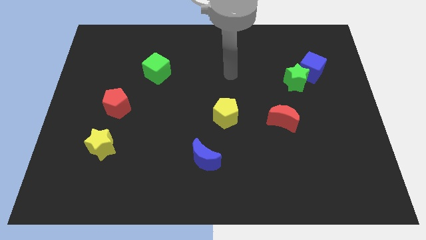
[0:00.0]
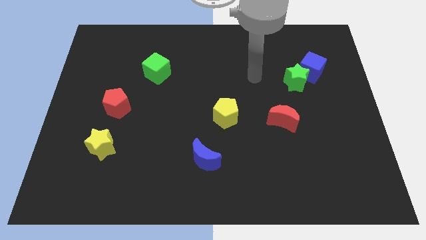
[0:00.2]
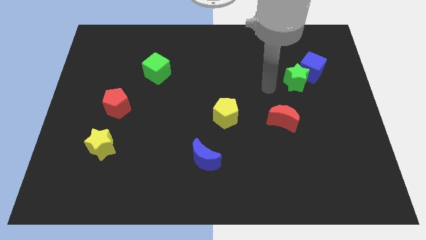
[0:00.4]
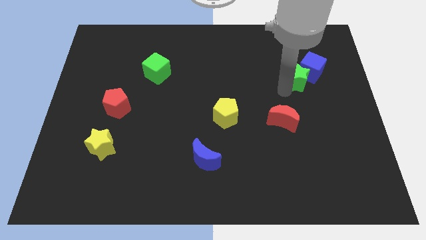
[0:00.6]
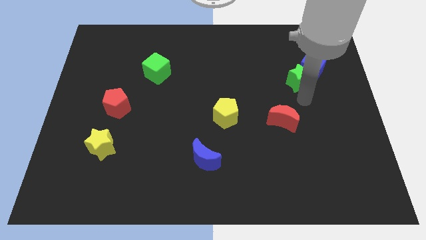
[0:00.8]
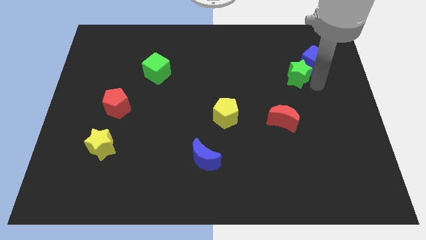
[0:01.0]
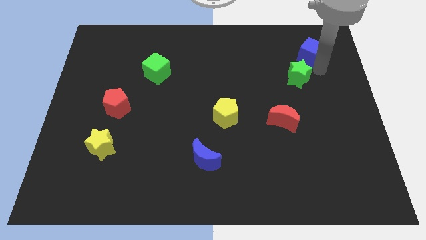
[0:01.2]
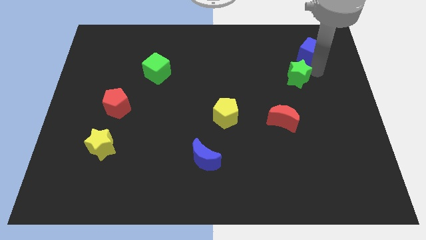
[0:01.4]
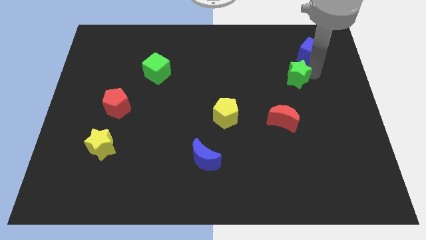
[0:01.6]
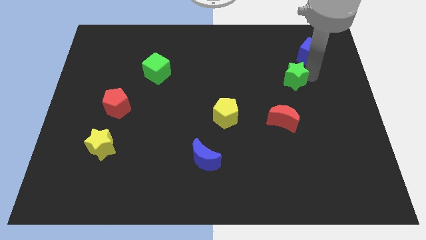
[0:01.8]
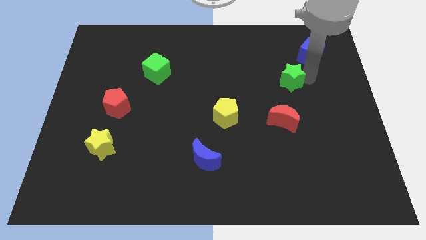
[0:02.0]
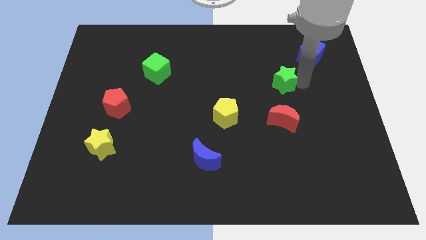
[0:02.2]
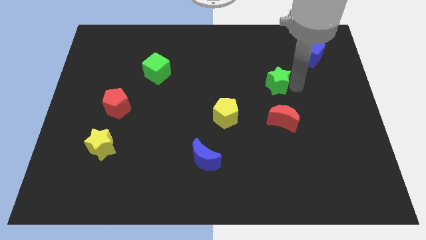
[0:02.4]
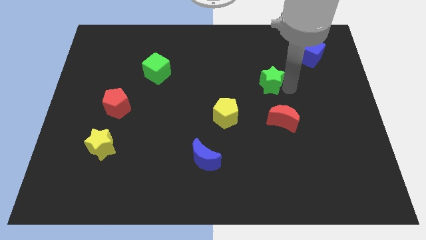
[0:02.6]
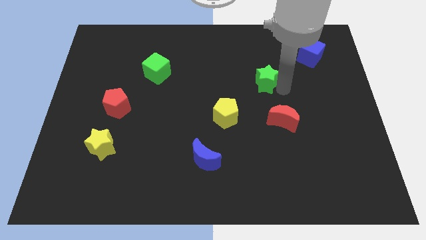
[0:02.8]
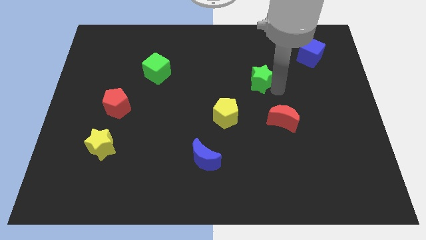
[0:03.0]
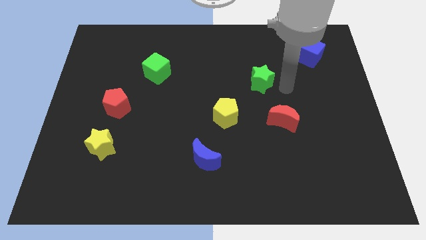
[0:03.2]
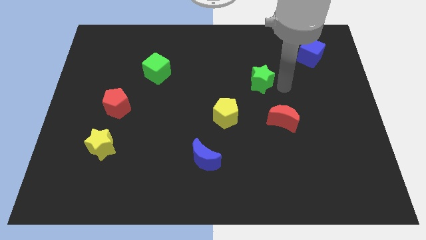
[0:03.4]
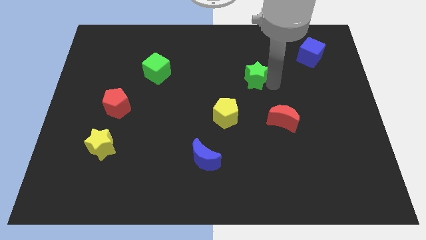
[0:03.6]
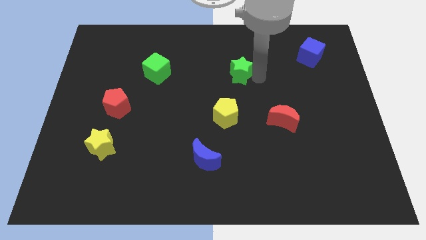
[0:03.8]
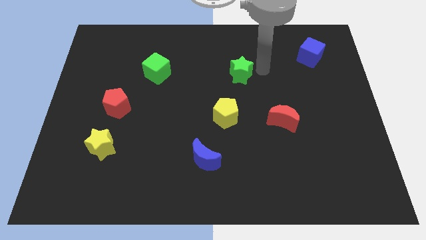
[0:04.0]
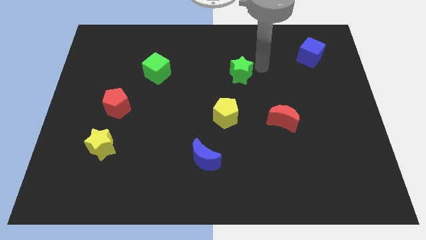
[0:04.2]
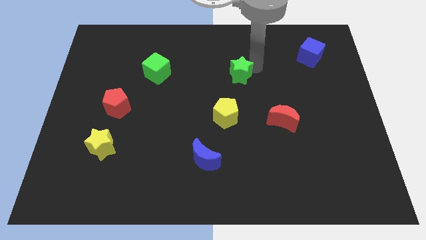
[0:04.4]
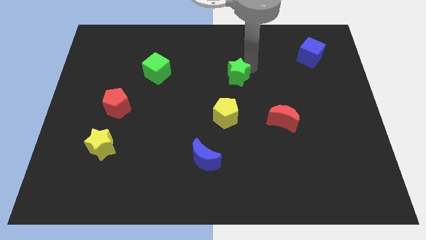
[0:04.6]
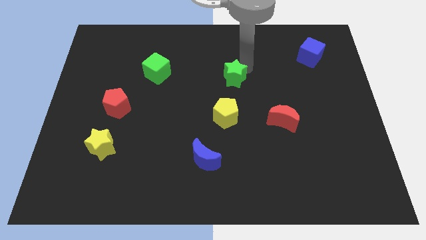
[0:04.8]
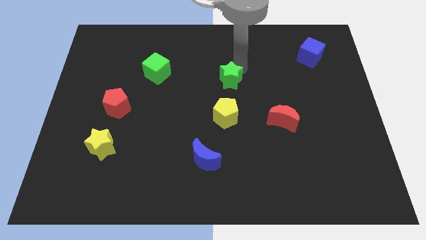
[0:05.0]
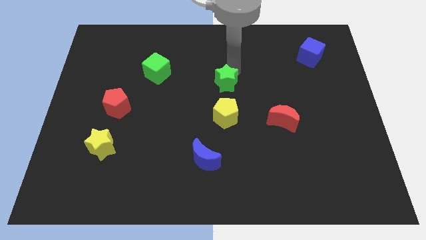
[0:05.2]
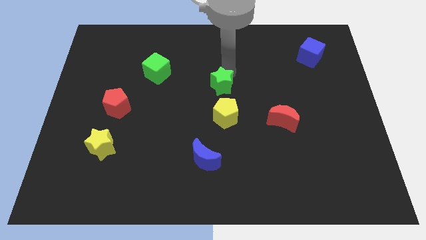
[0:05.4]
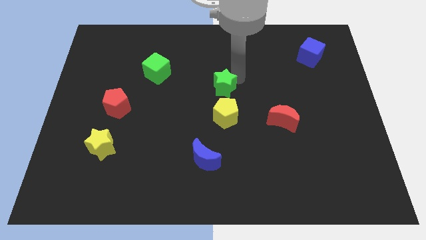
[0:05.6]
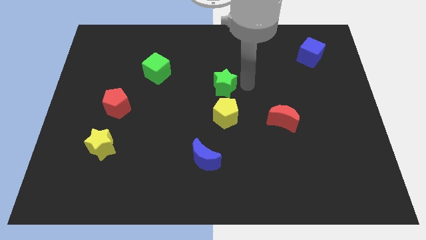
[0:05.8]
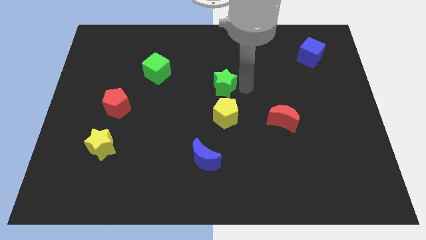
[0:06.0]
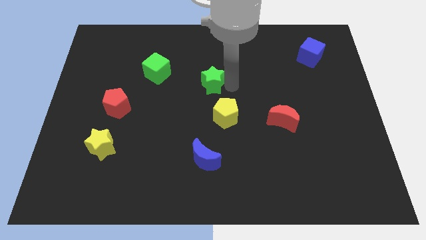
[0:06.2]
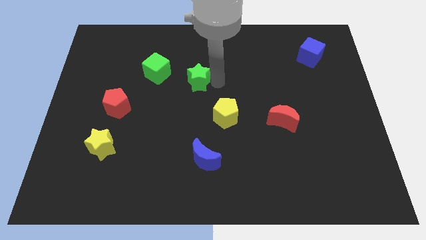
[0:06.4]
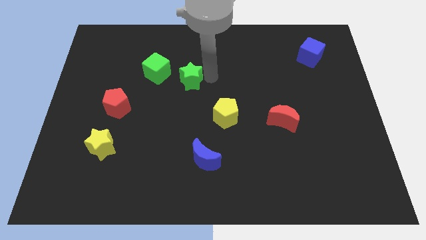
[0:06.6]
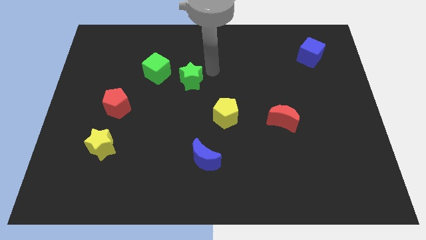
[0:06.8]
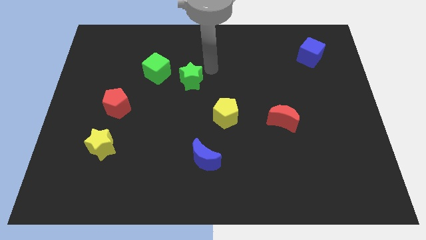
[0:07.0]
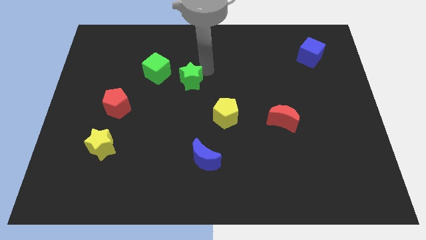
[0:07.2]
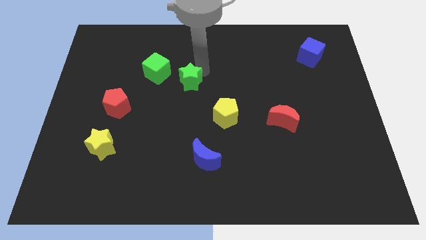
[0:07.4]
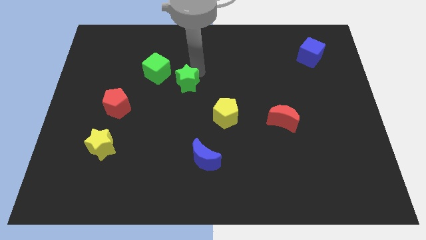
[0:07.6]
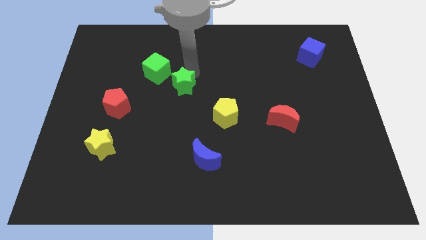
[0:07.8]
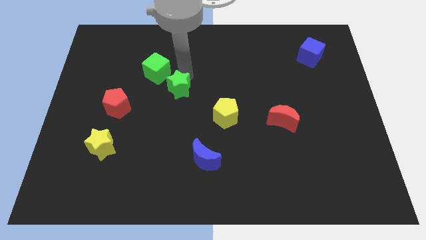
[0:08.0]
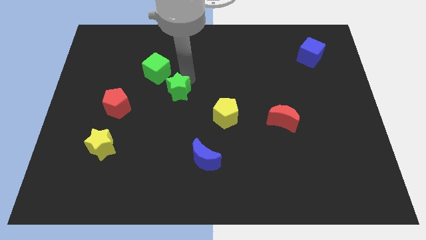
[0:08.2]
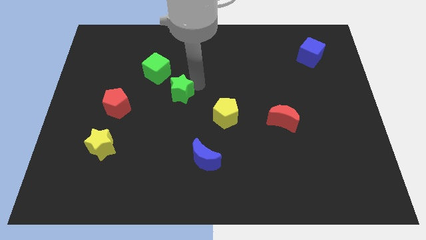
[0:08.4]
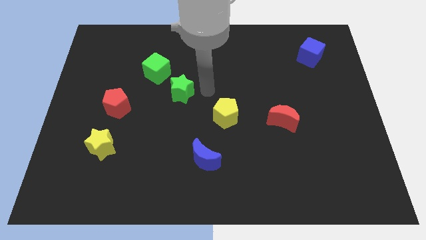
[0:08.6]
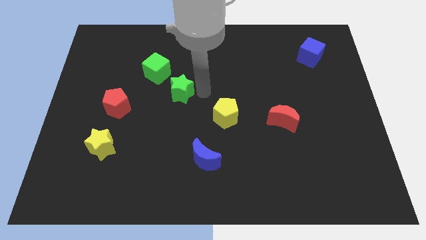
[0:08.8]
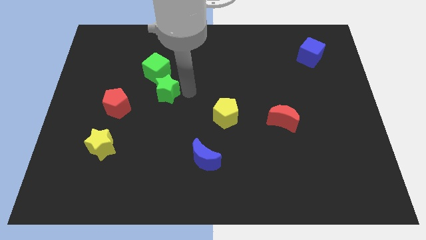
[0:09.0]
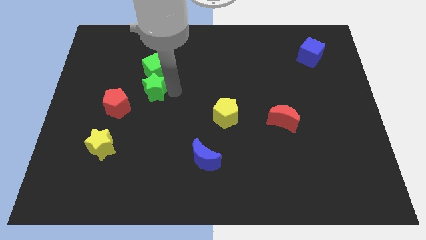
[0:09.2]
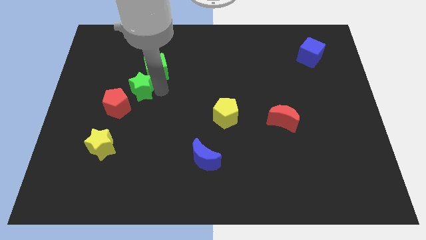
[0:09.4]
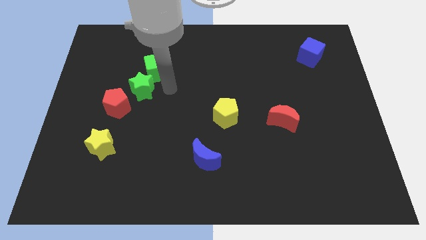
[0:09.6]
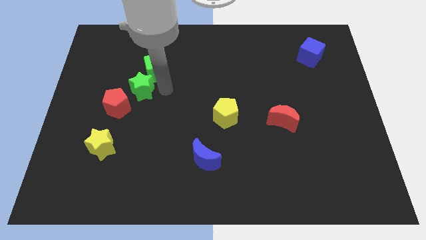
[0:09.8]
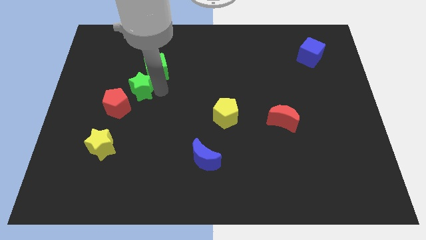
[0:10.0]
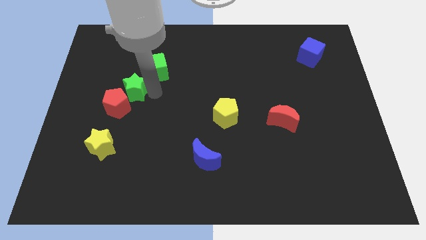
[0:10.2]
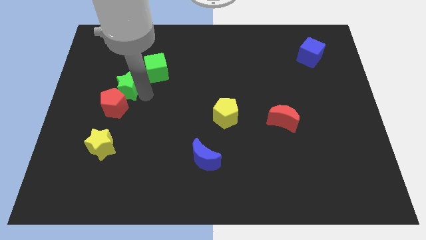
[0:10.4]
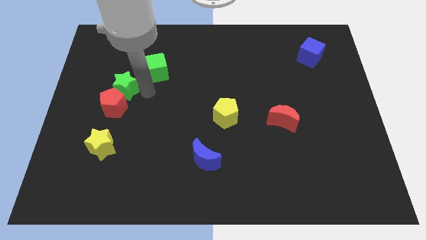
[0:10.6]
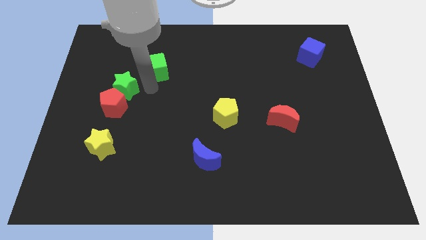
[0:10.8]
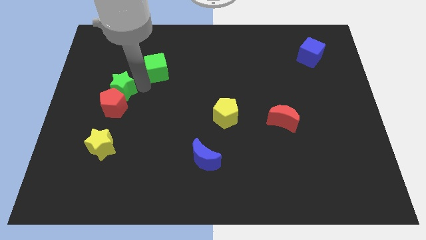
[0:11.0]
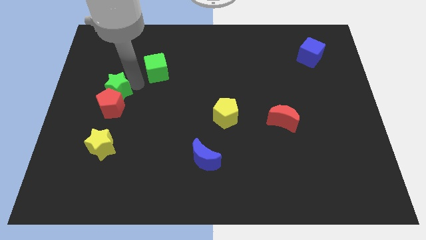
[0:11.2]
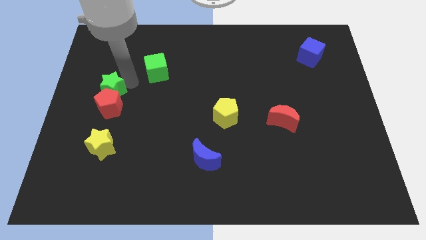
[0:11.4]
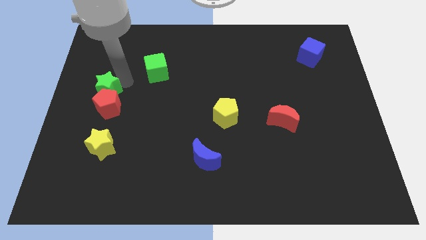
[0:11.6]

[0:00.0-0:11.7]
push the green star to the center left

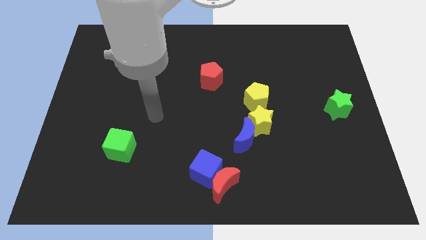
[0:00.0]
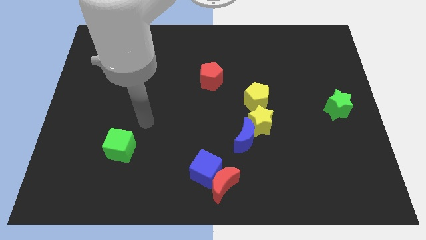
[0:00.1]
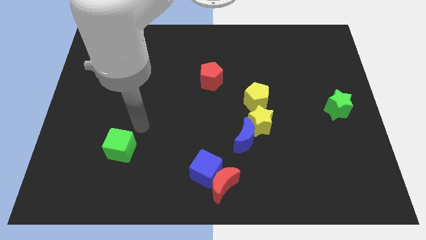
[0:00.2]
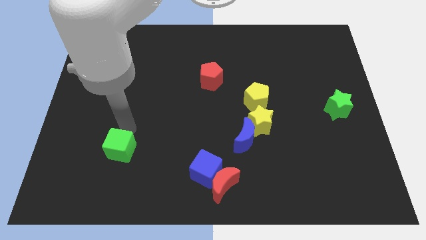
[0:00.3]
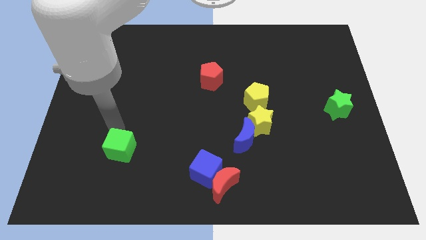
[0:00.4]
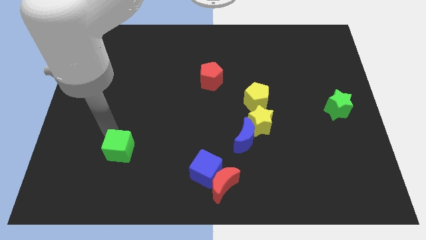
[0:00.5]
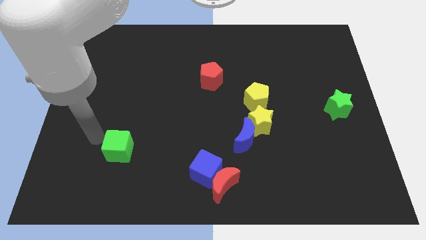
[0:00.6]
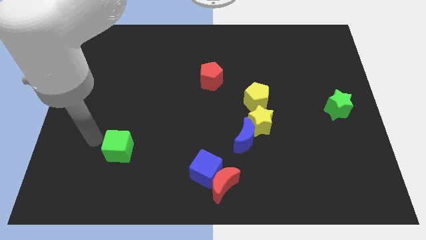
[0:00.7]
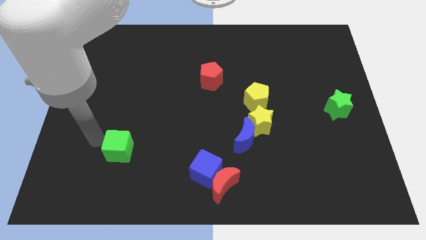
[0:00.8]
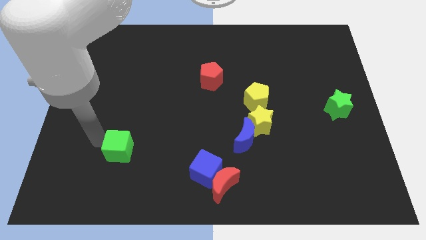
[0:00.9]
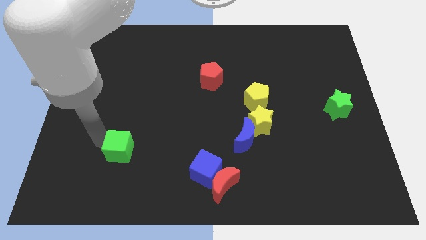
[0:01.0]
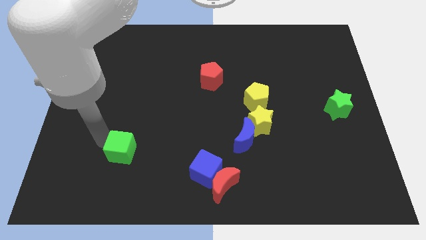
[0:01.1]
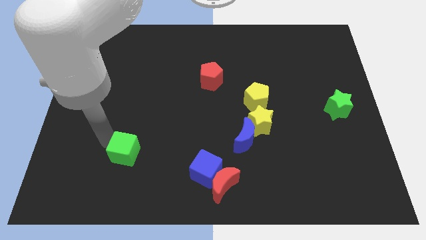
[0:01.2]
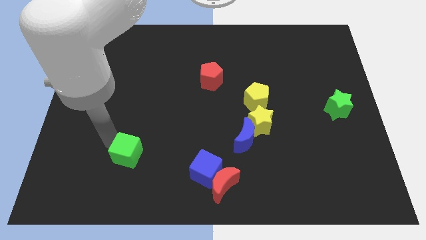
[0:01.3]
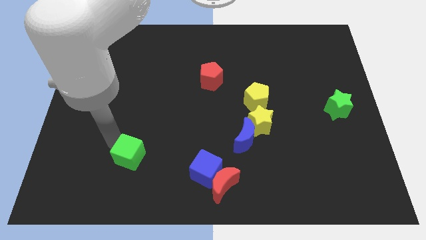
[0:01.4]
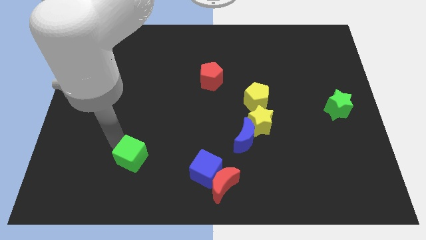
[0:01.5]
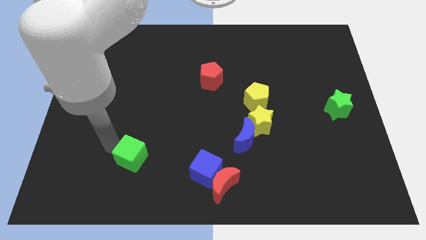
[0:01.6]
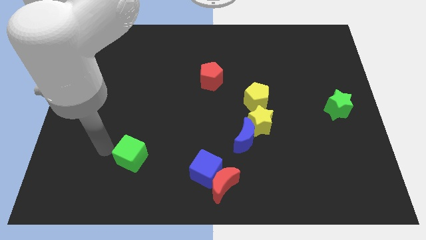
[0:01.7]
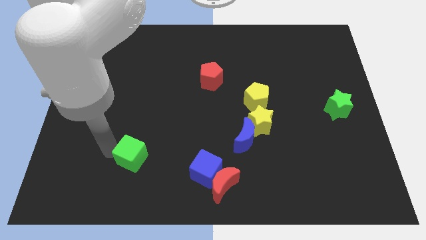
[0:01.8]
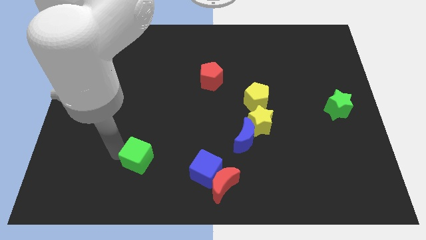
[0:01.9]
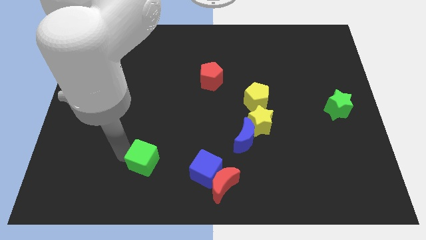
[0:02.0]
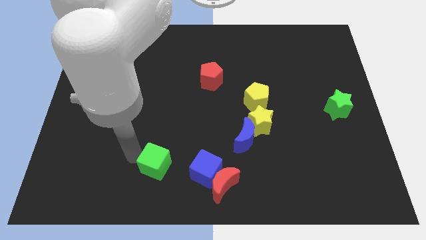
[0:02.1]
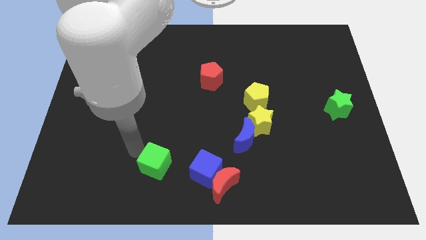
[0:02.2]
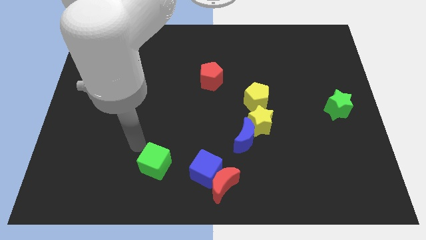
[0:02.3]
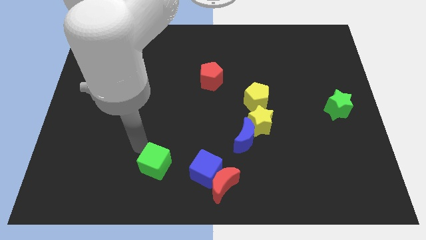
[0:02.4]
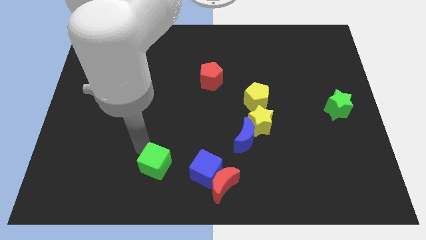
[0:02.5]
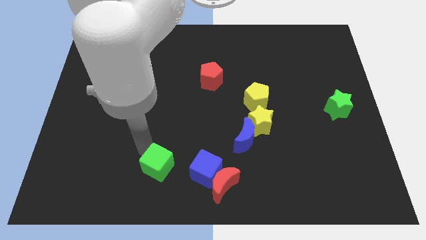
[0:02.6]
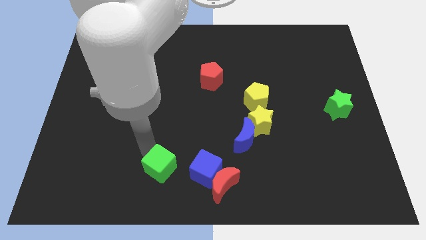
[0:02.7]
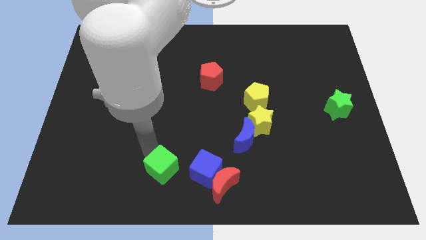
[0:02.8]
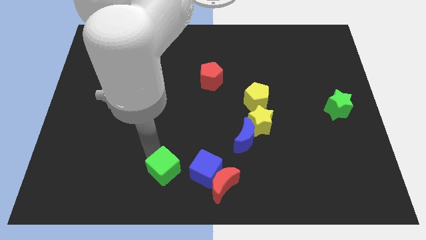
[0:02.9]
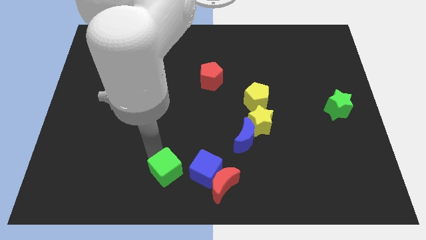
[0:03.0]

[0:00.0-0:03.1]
push the green cube to the bottom side
